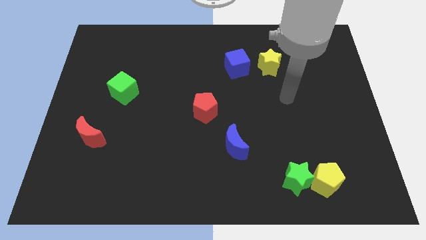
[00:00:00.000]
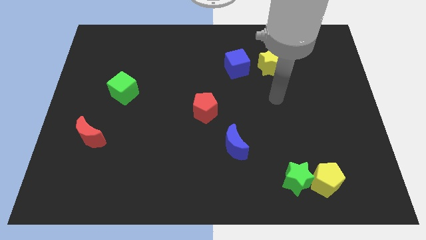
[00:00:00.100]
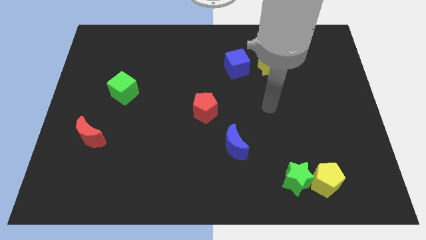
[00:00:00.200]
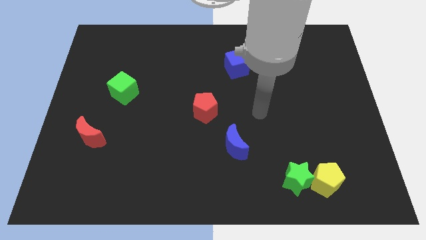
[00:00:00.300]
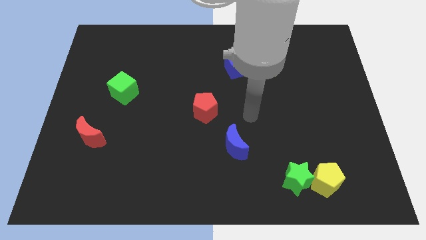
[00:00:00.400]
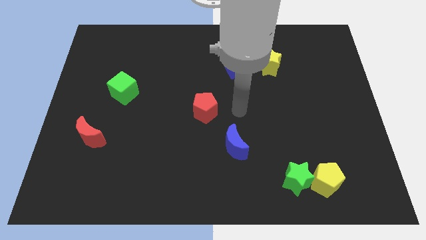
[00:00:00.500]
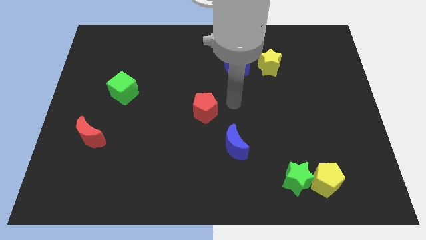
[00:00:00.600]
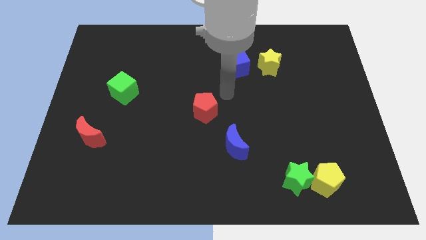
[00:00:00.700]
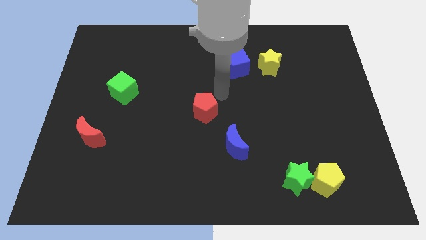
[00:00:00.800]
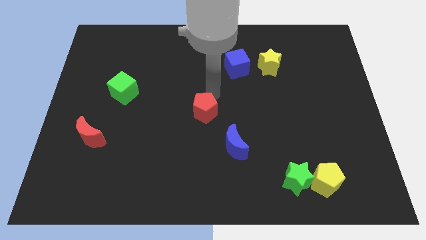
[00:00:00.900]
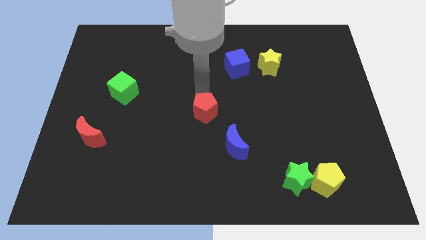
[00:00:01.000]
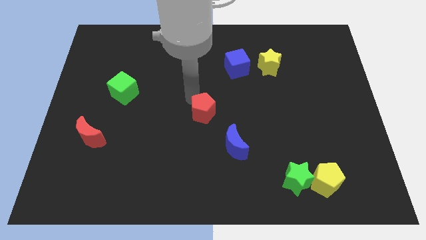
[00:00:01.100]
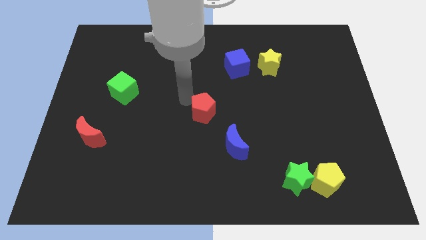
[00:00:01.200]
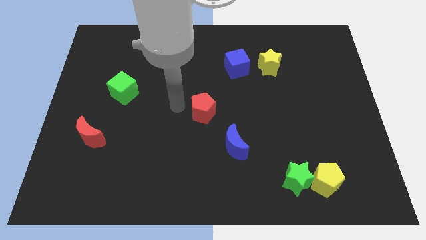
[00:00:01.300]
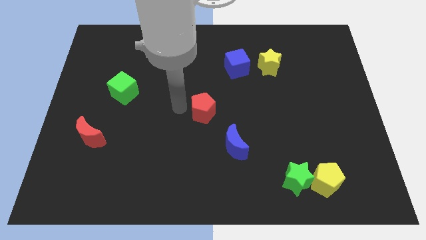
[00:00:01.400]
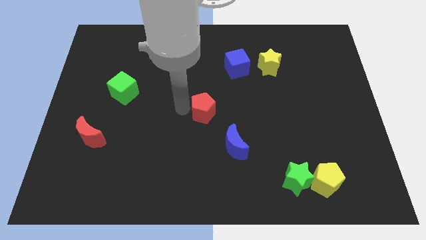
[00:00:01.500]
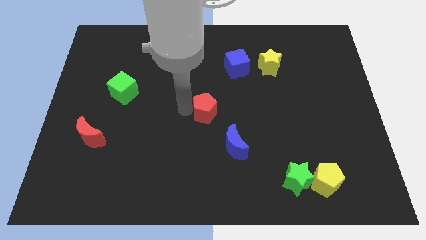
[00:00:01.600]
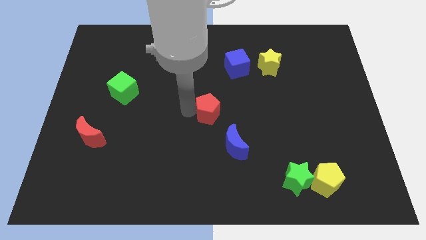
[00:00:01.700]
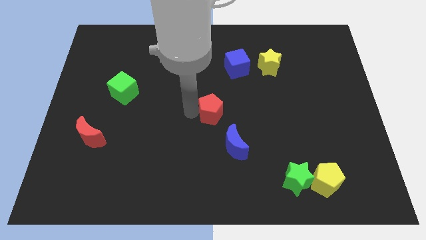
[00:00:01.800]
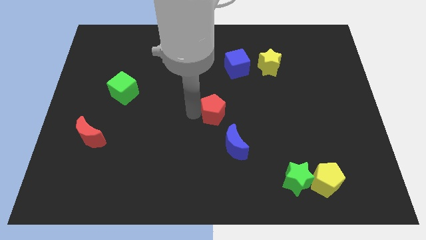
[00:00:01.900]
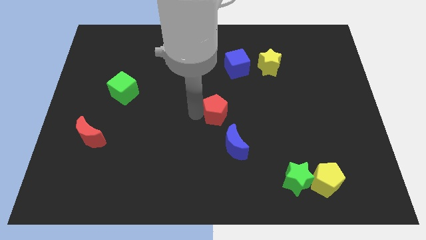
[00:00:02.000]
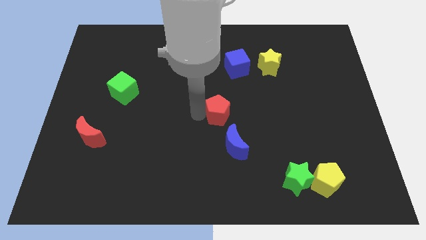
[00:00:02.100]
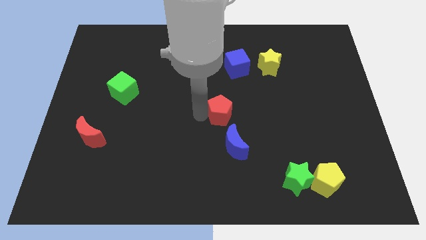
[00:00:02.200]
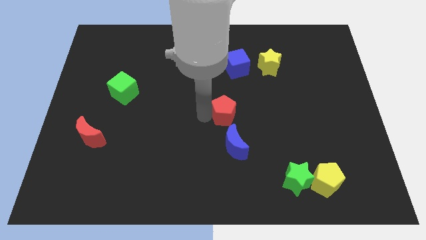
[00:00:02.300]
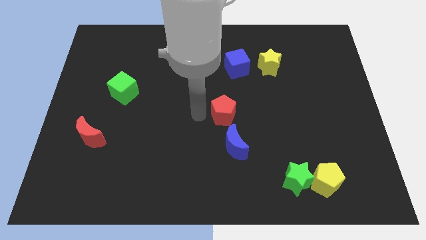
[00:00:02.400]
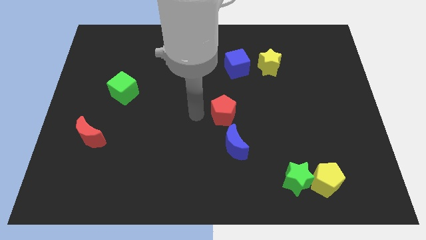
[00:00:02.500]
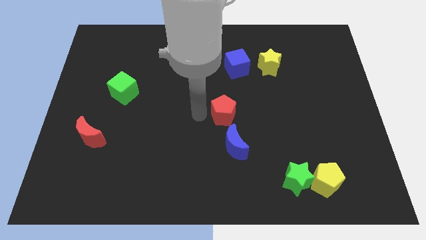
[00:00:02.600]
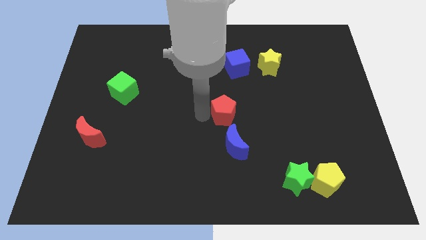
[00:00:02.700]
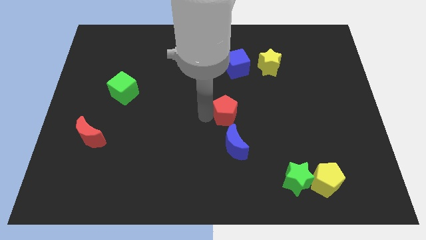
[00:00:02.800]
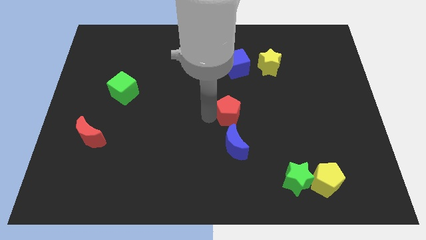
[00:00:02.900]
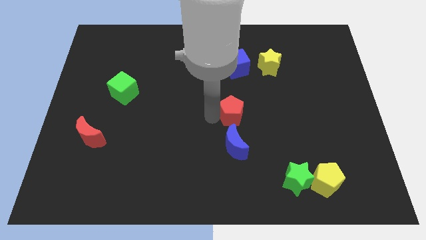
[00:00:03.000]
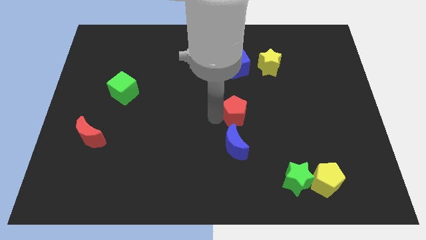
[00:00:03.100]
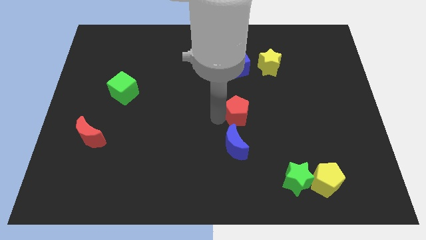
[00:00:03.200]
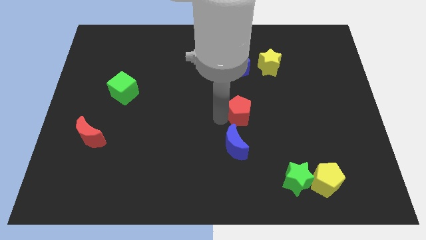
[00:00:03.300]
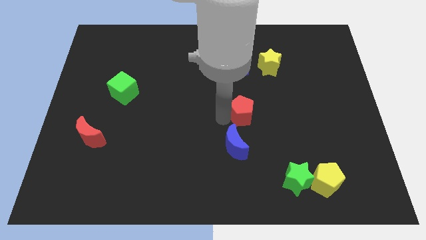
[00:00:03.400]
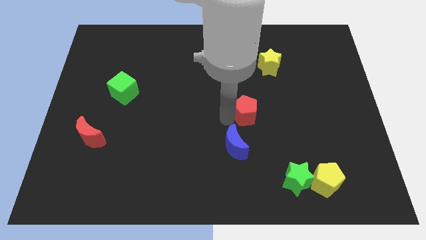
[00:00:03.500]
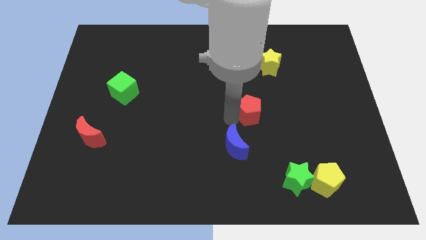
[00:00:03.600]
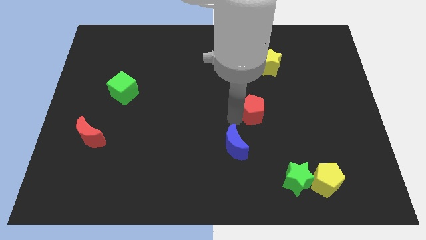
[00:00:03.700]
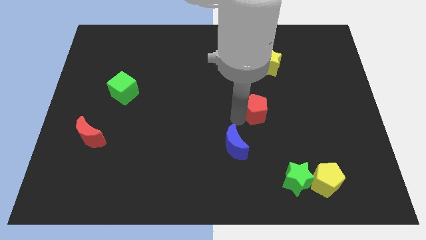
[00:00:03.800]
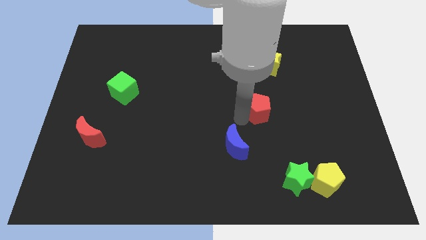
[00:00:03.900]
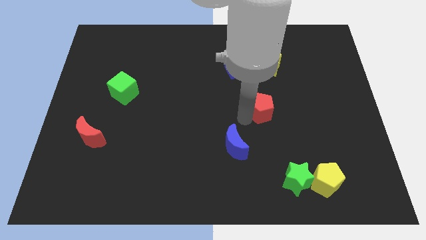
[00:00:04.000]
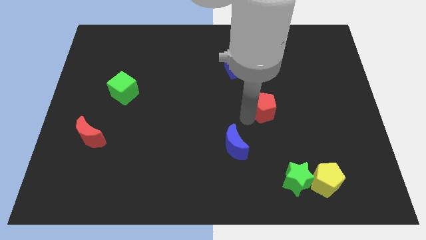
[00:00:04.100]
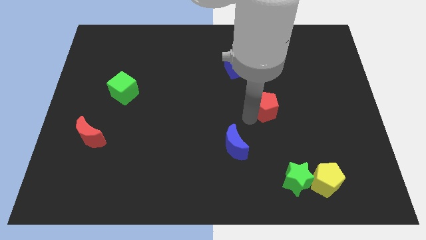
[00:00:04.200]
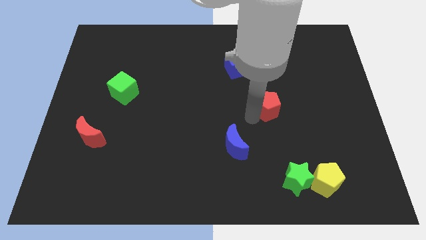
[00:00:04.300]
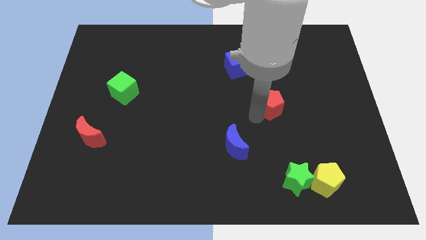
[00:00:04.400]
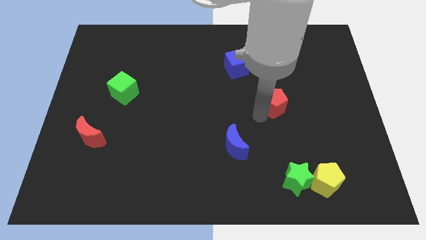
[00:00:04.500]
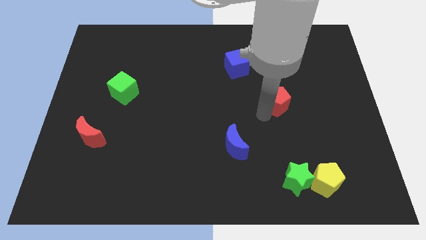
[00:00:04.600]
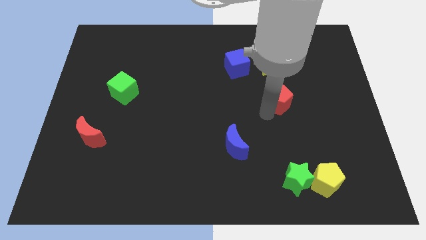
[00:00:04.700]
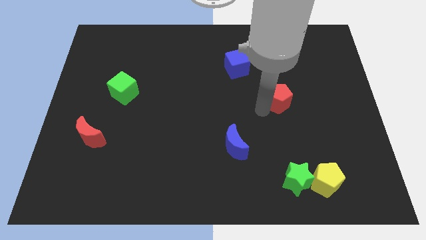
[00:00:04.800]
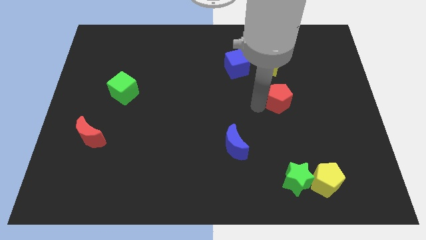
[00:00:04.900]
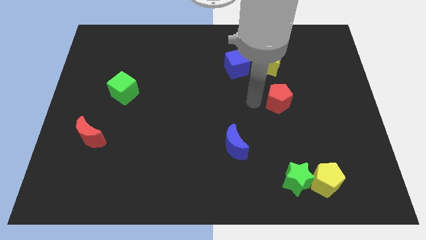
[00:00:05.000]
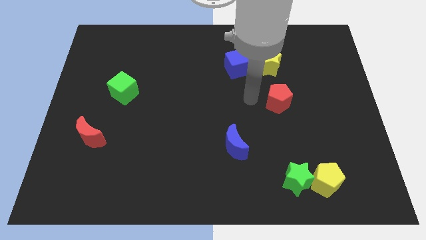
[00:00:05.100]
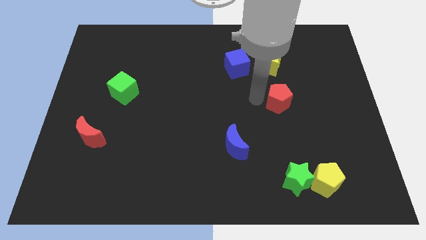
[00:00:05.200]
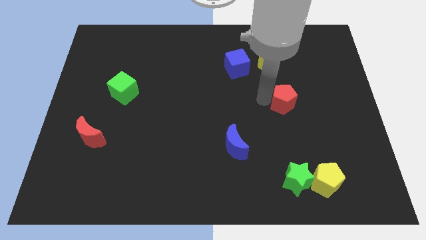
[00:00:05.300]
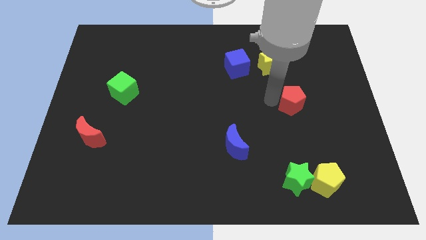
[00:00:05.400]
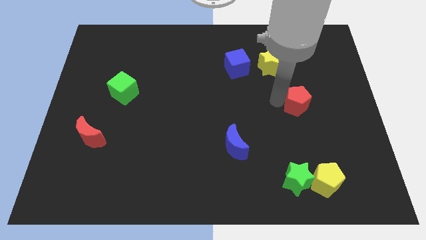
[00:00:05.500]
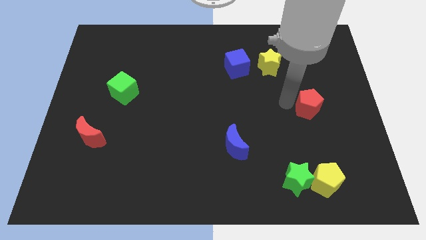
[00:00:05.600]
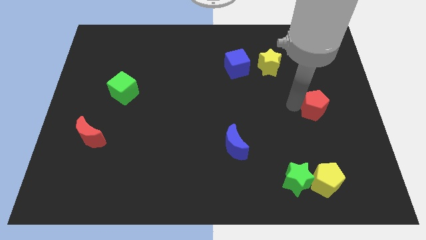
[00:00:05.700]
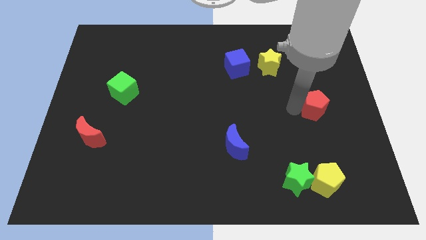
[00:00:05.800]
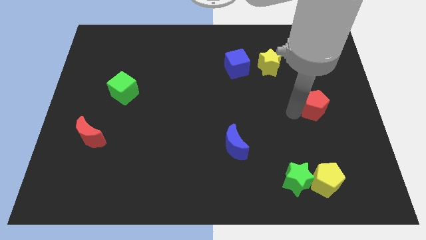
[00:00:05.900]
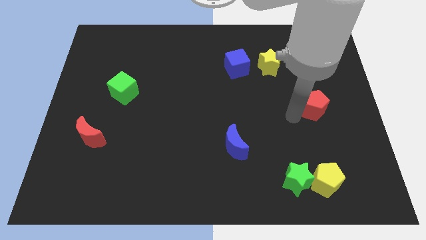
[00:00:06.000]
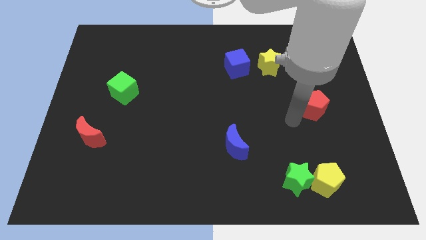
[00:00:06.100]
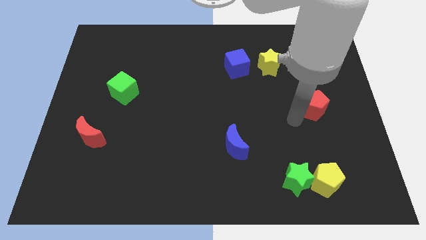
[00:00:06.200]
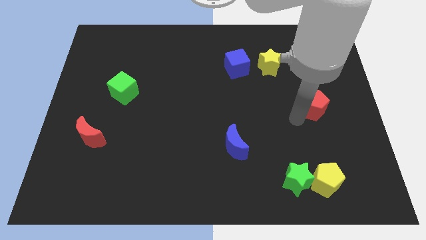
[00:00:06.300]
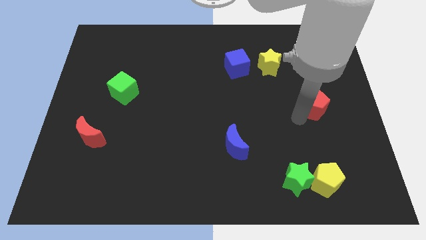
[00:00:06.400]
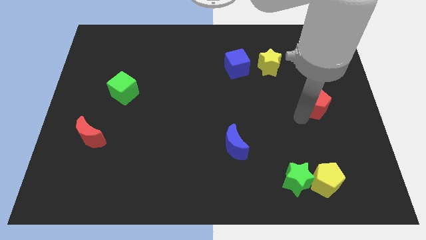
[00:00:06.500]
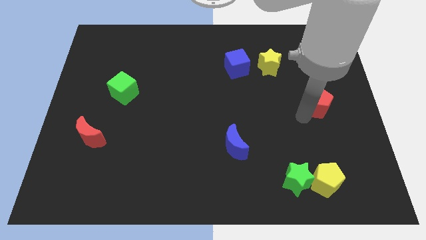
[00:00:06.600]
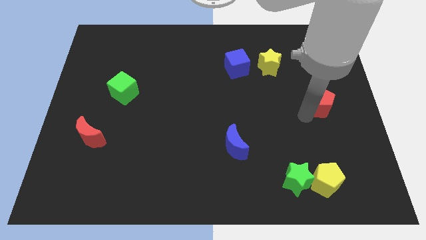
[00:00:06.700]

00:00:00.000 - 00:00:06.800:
move the red pentagon to the right side
